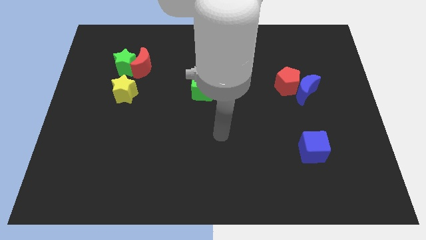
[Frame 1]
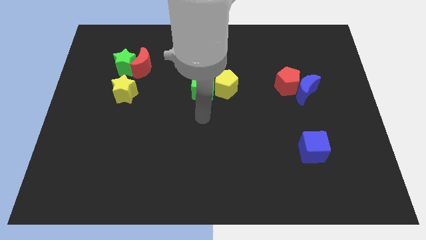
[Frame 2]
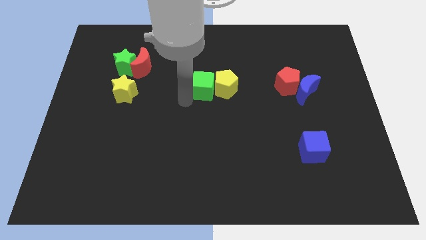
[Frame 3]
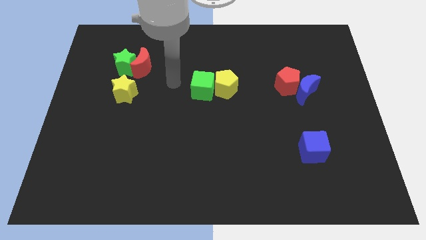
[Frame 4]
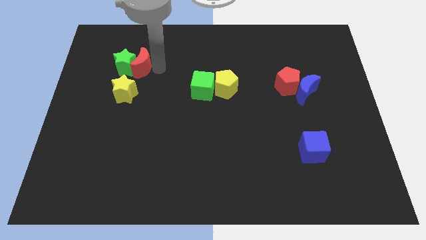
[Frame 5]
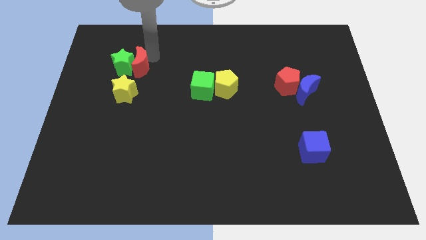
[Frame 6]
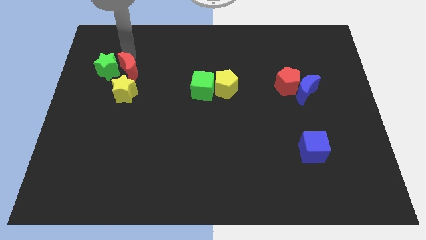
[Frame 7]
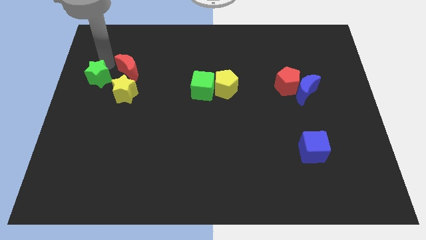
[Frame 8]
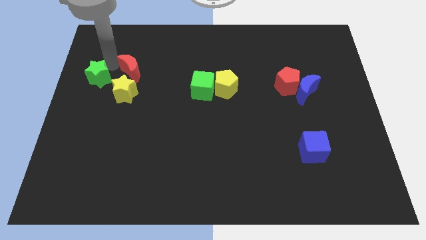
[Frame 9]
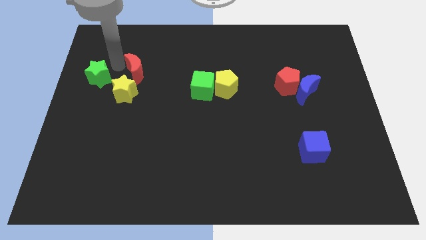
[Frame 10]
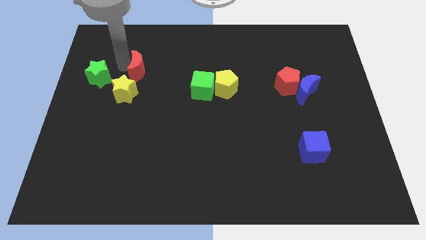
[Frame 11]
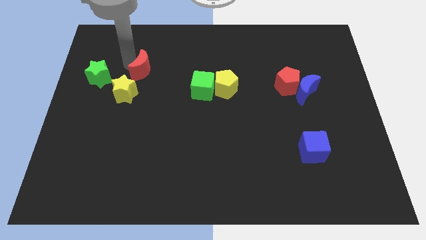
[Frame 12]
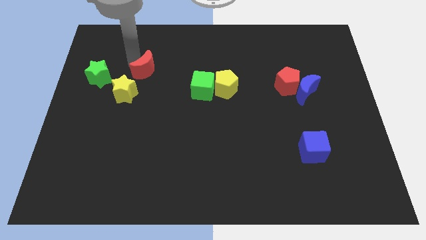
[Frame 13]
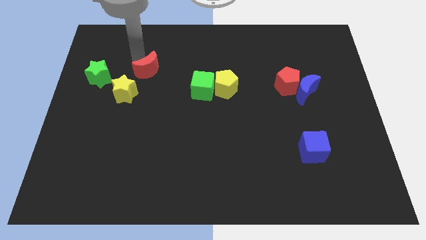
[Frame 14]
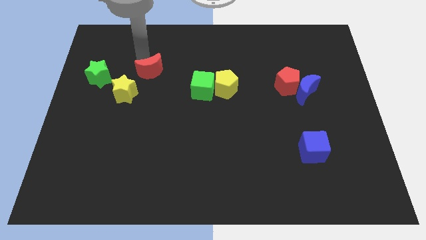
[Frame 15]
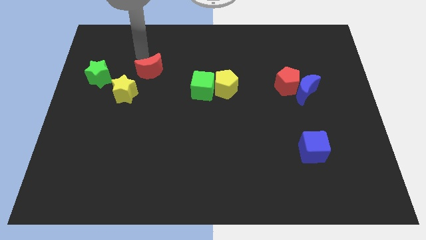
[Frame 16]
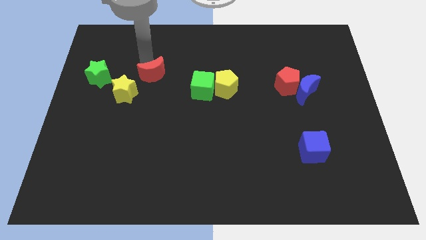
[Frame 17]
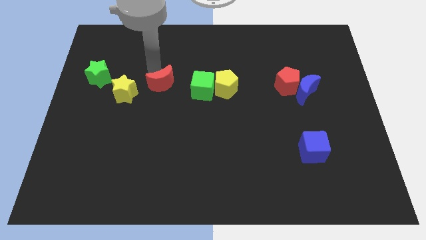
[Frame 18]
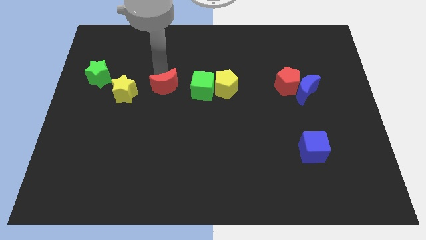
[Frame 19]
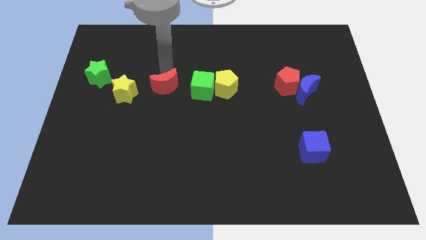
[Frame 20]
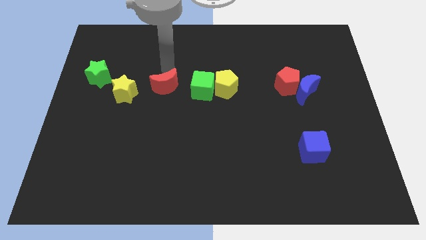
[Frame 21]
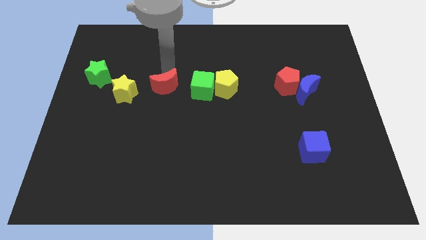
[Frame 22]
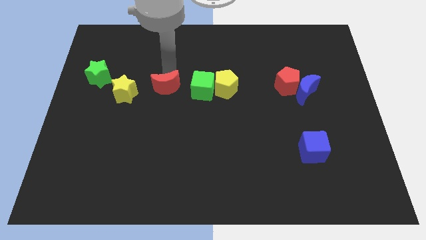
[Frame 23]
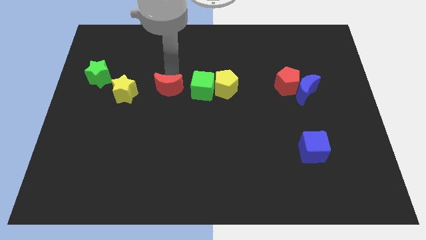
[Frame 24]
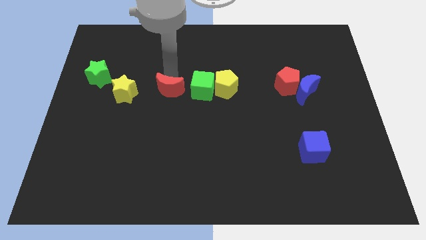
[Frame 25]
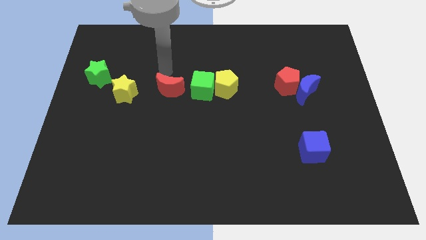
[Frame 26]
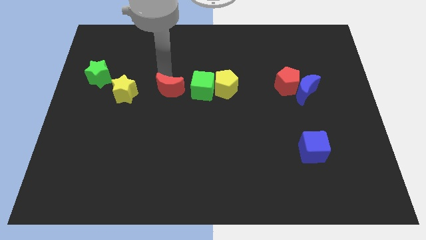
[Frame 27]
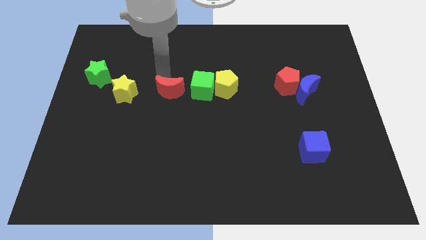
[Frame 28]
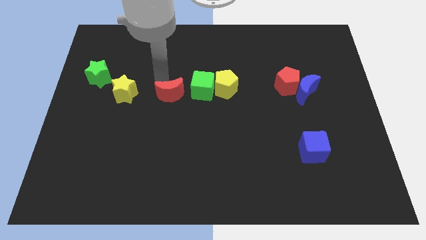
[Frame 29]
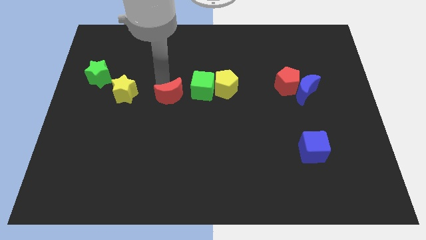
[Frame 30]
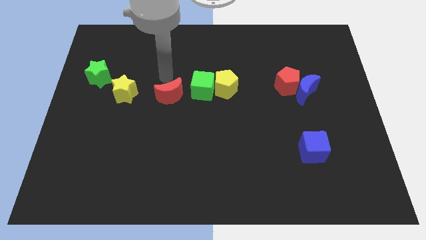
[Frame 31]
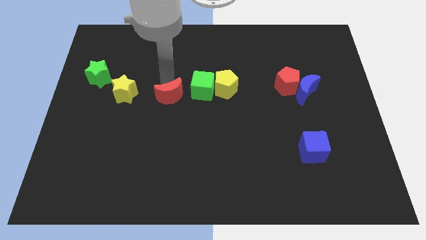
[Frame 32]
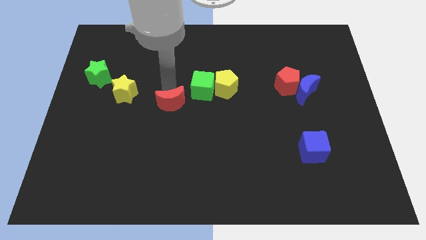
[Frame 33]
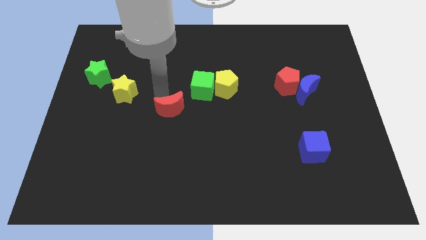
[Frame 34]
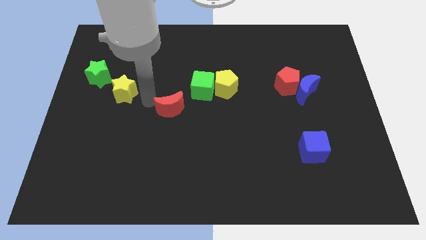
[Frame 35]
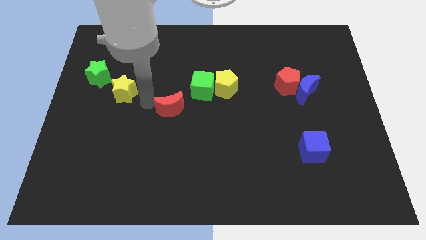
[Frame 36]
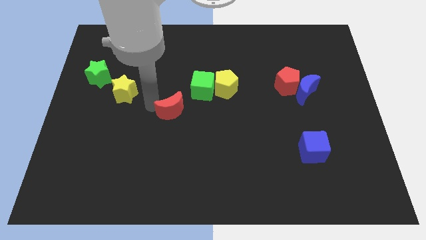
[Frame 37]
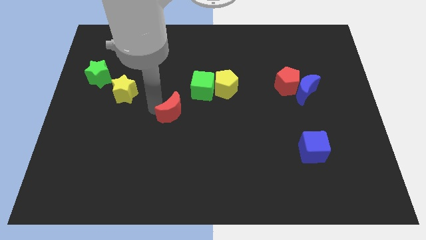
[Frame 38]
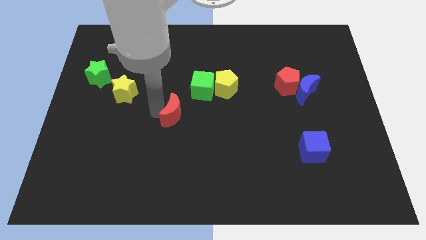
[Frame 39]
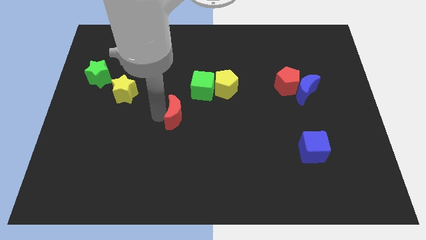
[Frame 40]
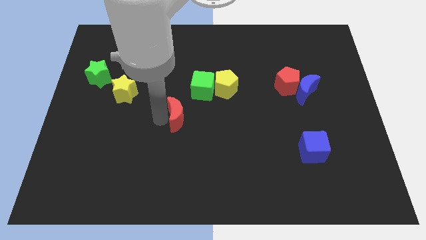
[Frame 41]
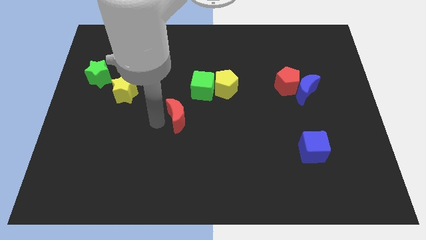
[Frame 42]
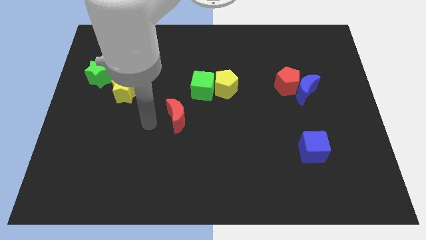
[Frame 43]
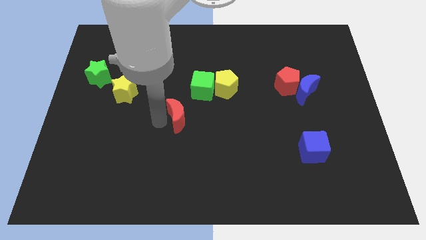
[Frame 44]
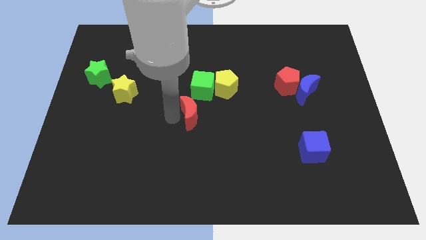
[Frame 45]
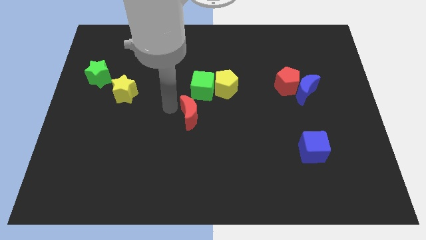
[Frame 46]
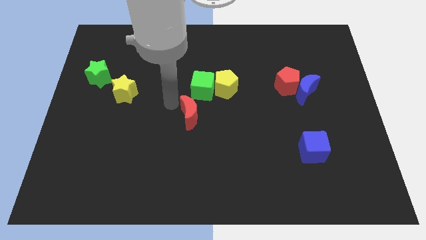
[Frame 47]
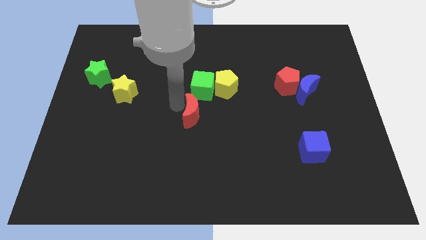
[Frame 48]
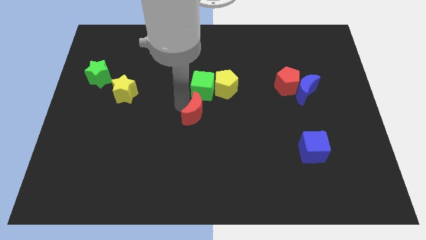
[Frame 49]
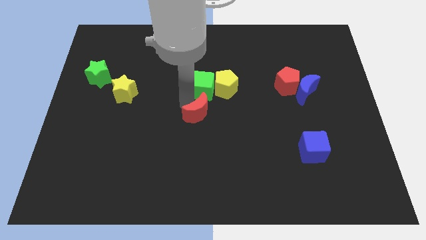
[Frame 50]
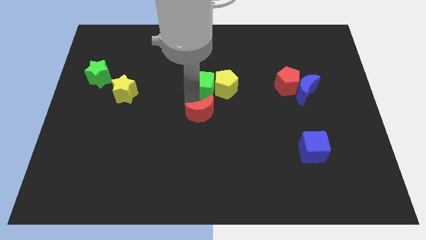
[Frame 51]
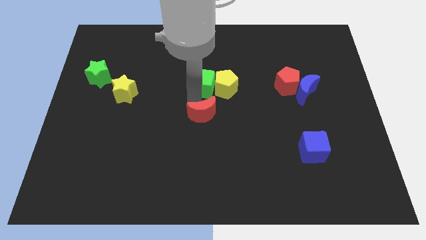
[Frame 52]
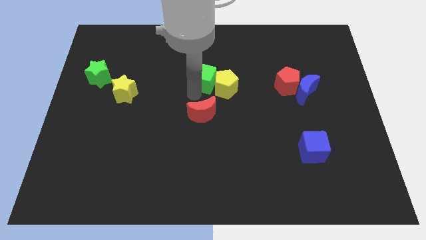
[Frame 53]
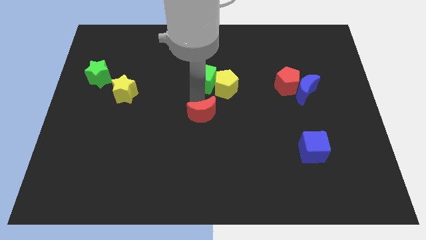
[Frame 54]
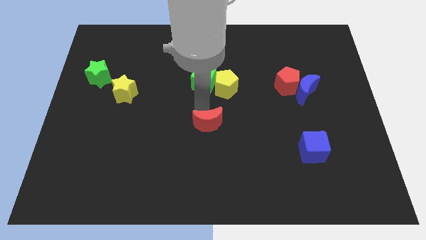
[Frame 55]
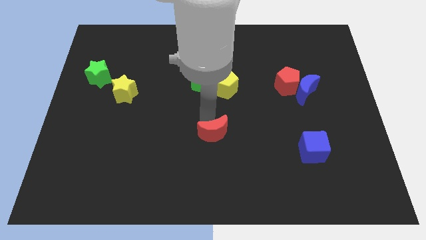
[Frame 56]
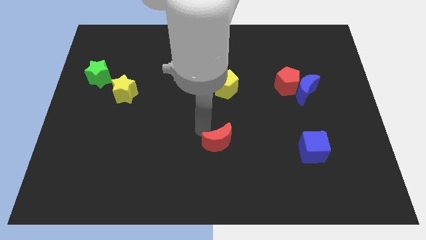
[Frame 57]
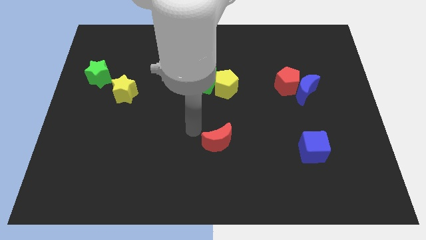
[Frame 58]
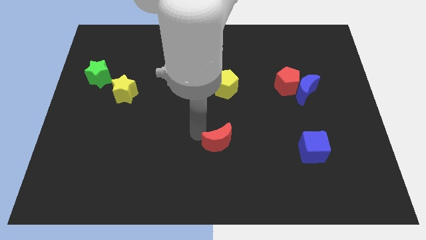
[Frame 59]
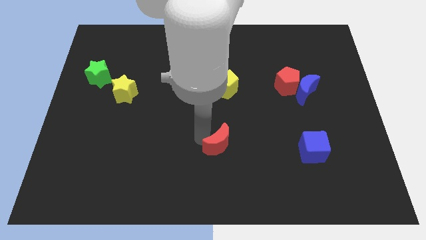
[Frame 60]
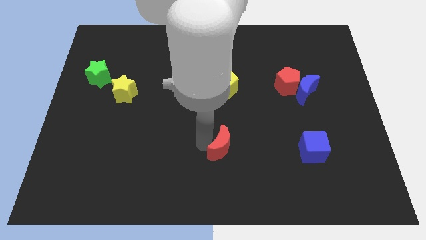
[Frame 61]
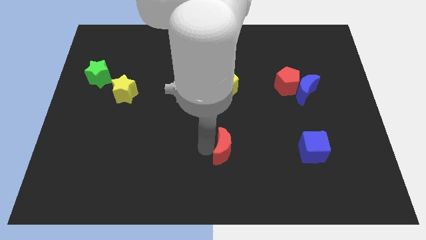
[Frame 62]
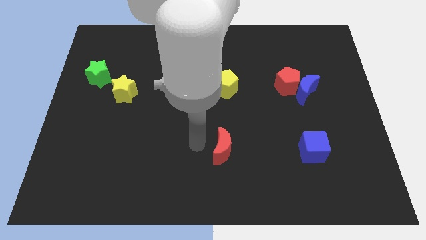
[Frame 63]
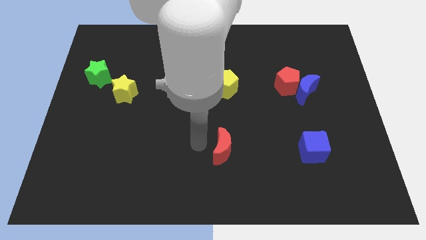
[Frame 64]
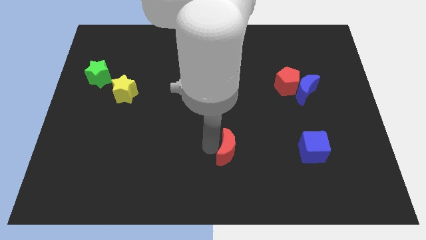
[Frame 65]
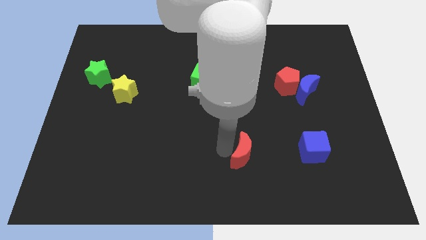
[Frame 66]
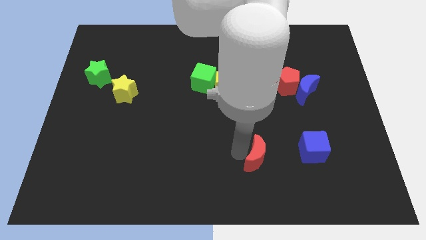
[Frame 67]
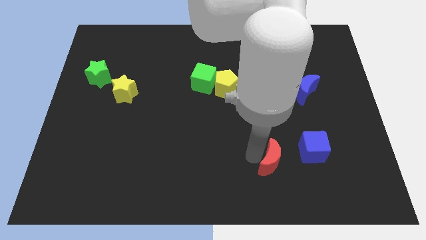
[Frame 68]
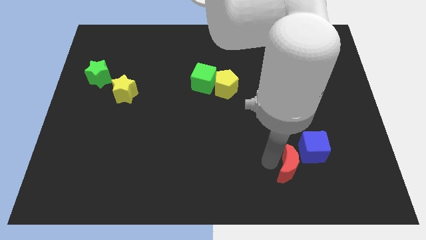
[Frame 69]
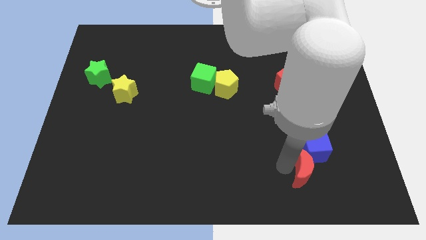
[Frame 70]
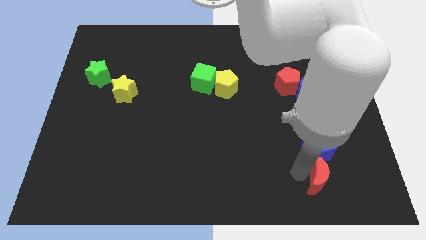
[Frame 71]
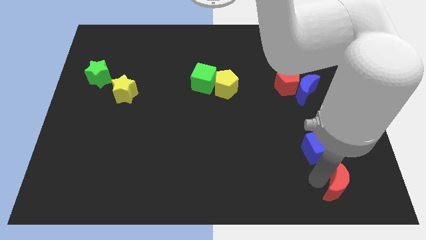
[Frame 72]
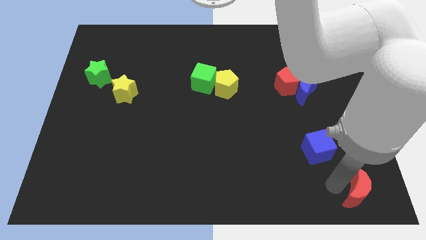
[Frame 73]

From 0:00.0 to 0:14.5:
slide the red moon to the bottom right corner
